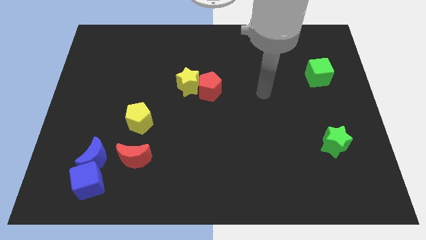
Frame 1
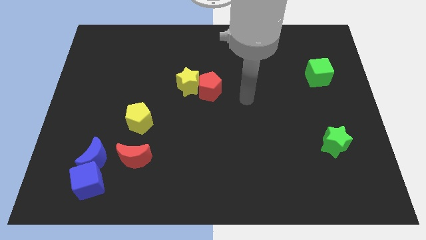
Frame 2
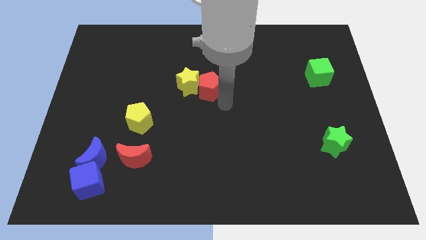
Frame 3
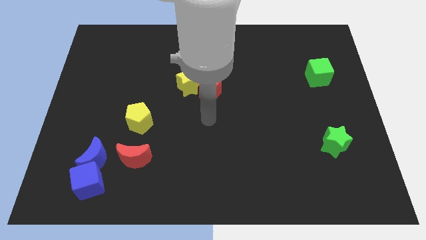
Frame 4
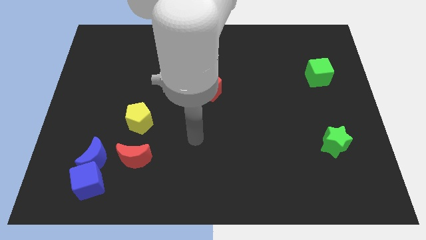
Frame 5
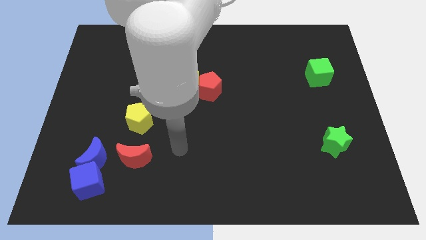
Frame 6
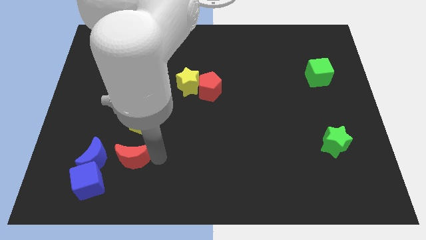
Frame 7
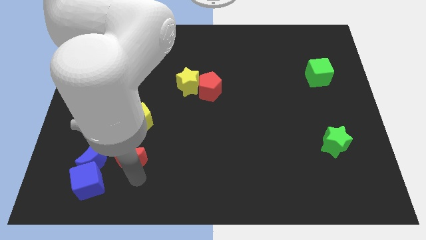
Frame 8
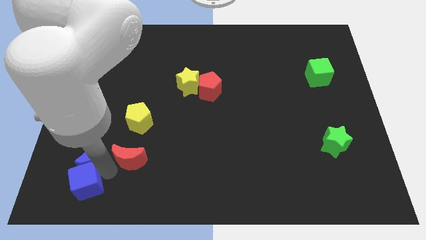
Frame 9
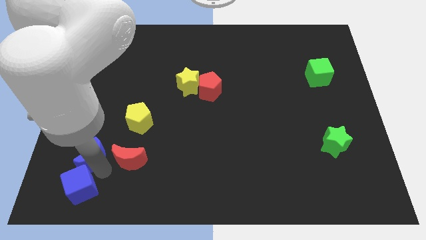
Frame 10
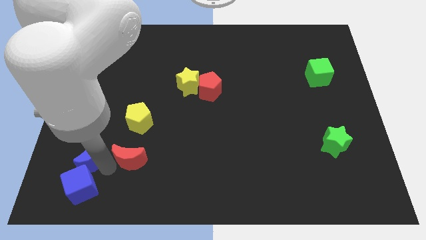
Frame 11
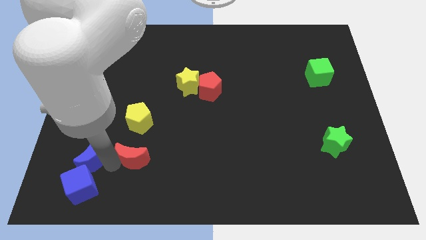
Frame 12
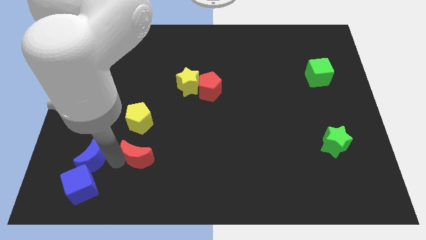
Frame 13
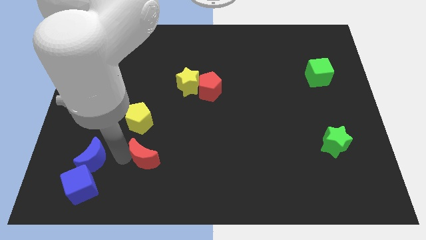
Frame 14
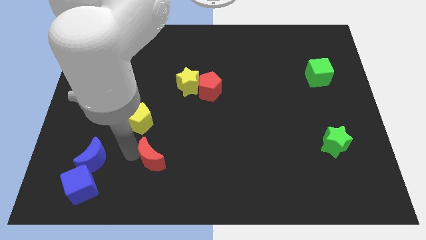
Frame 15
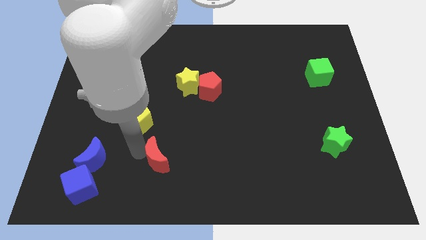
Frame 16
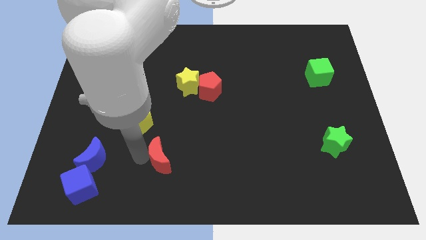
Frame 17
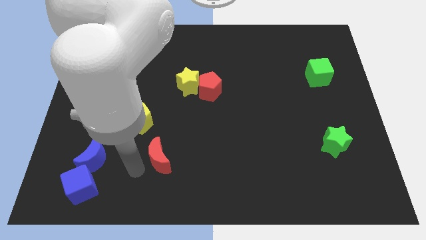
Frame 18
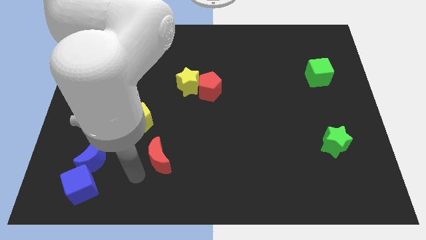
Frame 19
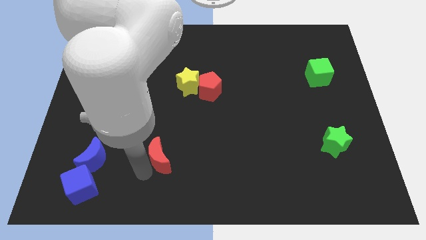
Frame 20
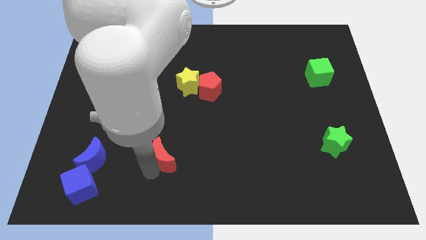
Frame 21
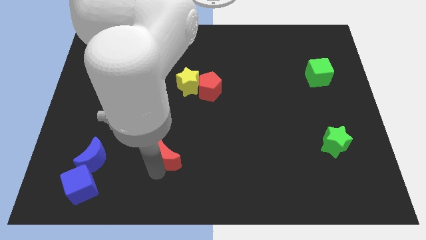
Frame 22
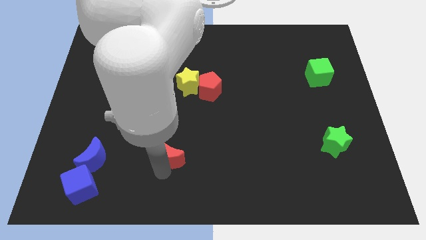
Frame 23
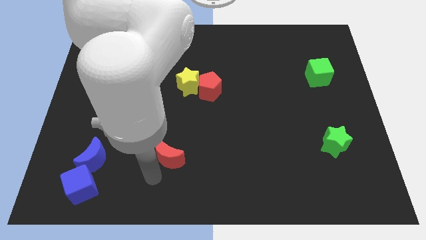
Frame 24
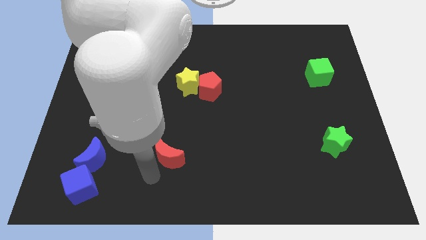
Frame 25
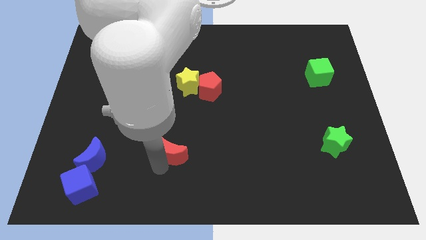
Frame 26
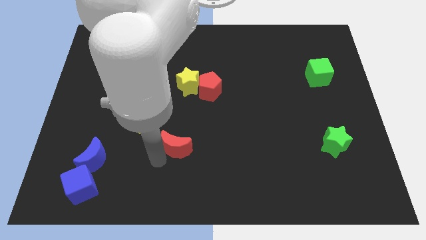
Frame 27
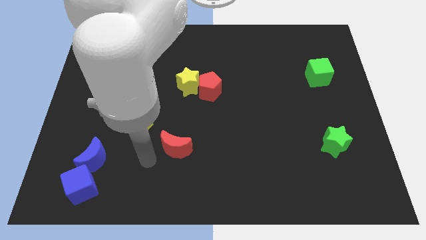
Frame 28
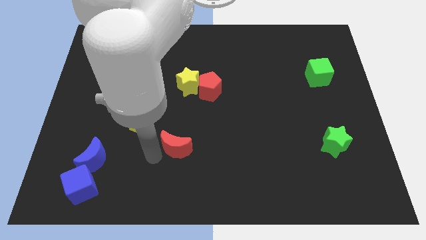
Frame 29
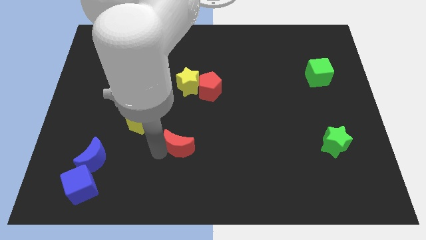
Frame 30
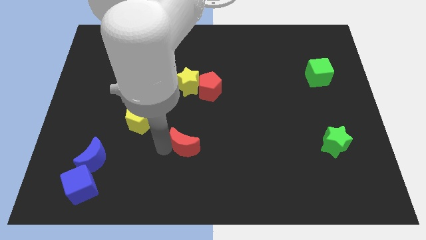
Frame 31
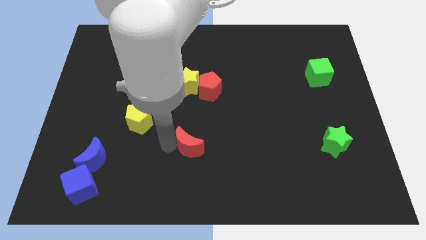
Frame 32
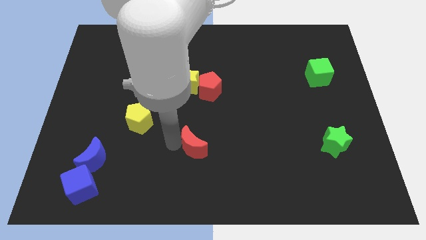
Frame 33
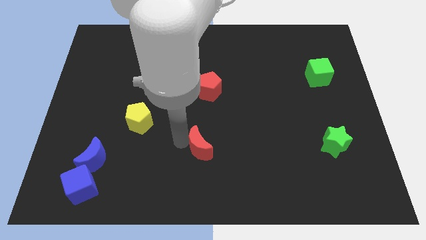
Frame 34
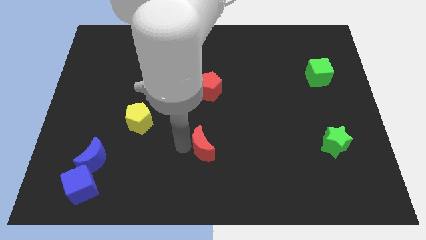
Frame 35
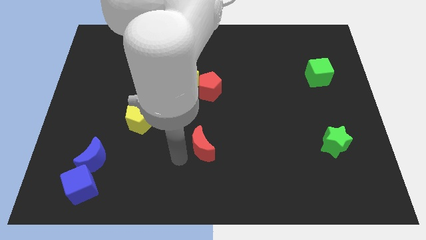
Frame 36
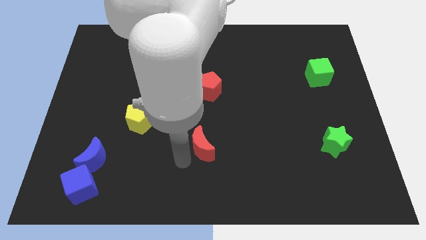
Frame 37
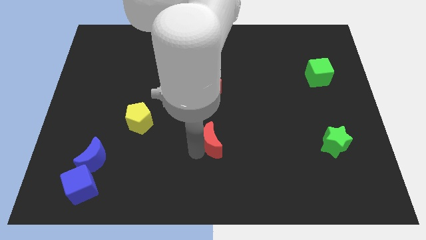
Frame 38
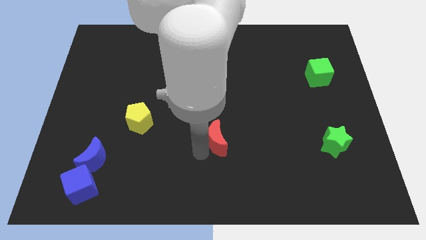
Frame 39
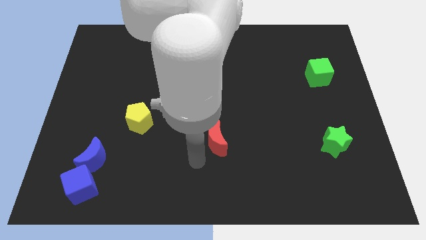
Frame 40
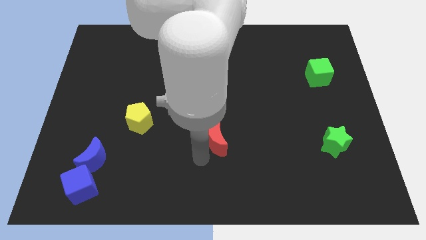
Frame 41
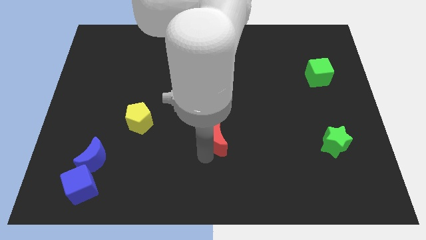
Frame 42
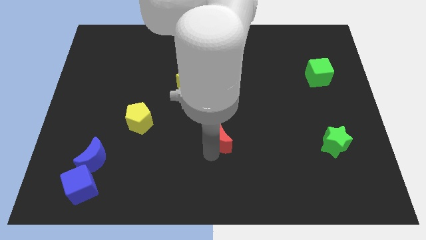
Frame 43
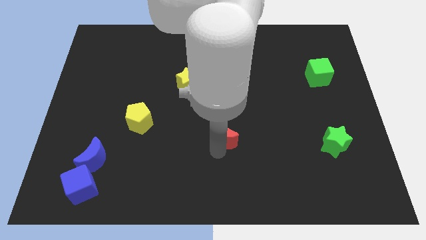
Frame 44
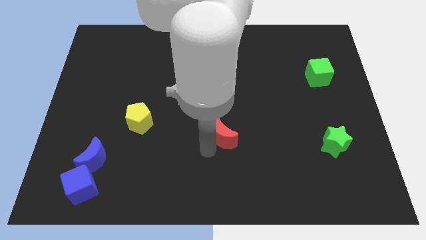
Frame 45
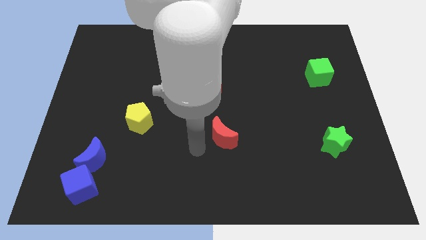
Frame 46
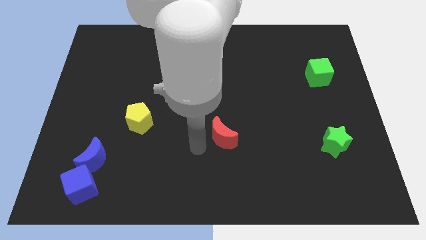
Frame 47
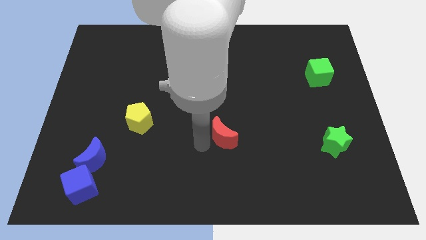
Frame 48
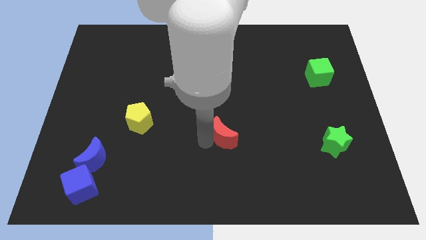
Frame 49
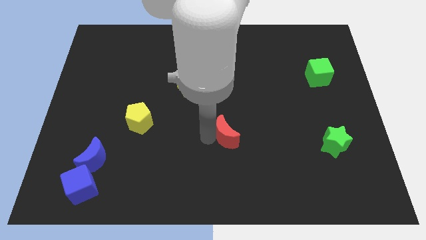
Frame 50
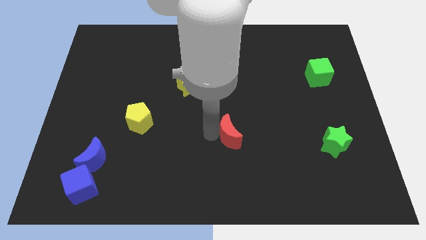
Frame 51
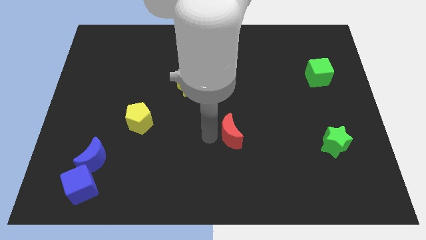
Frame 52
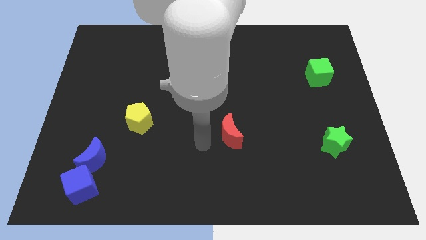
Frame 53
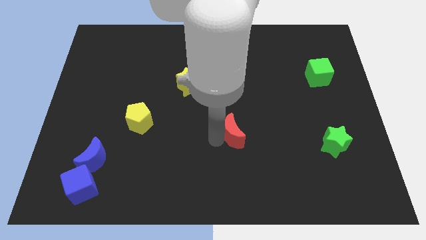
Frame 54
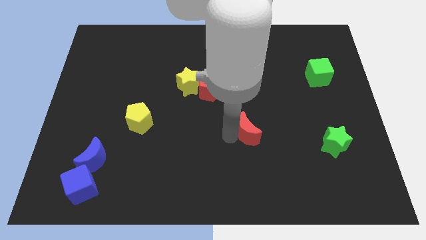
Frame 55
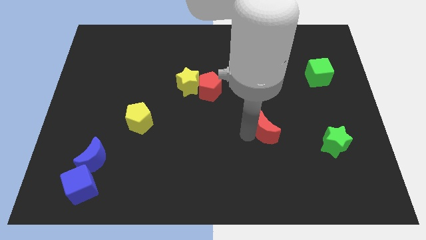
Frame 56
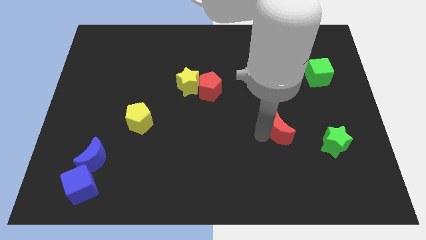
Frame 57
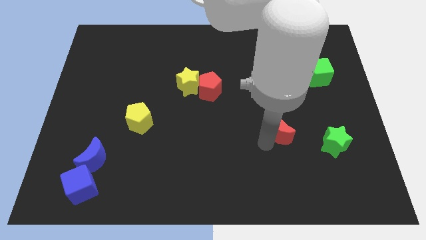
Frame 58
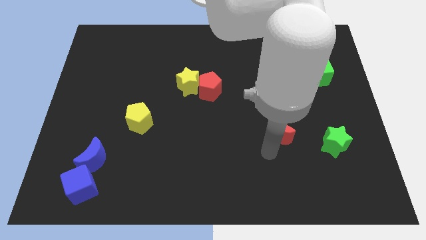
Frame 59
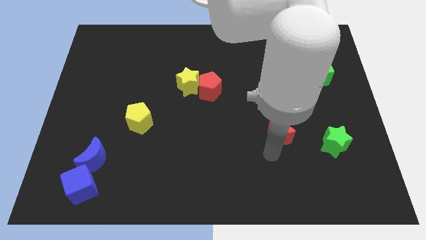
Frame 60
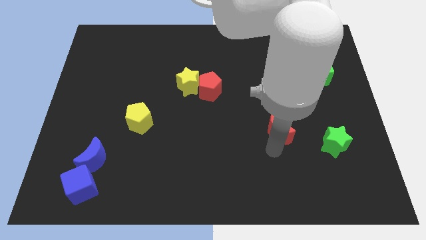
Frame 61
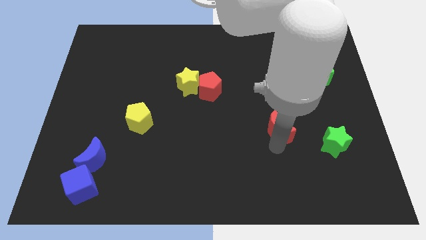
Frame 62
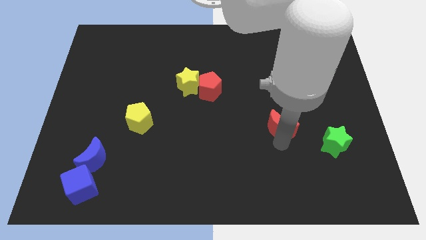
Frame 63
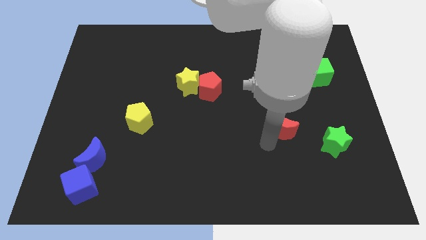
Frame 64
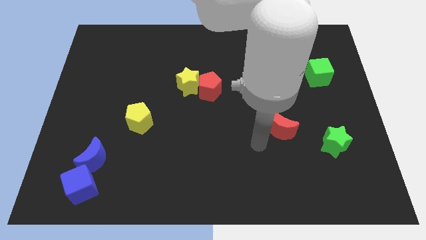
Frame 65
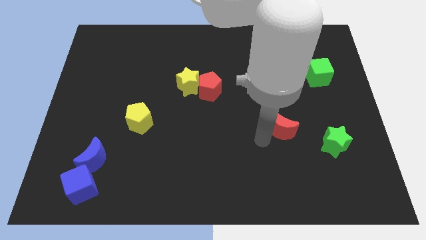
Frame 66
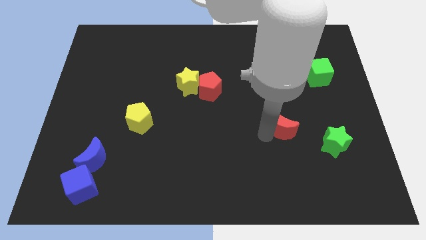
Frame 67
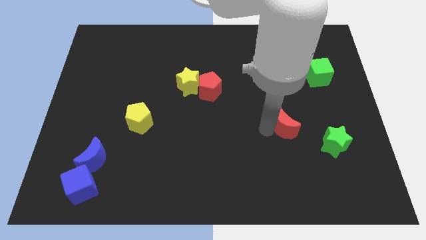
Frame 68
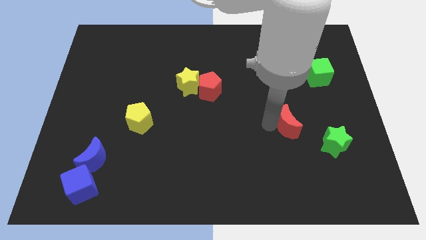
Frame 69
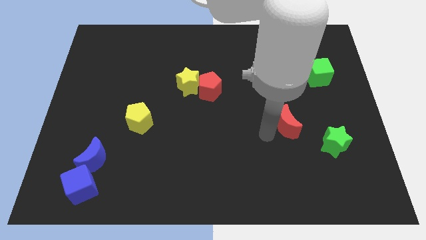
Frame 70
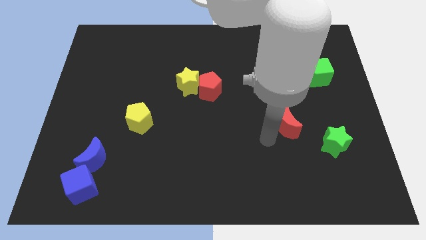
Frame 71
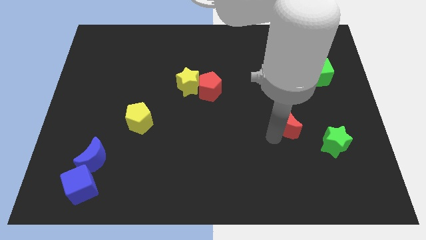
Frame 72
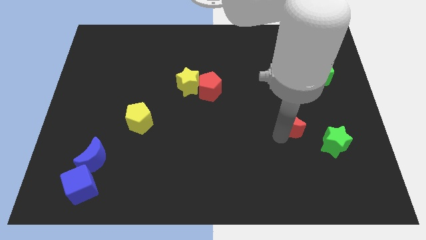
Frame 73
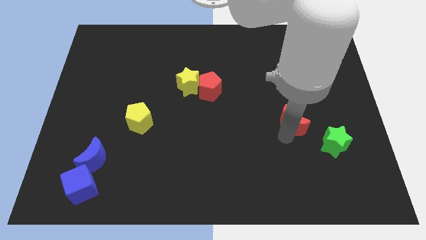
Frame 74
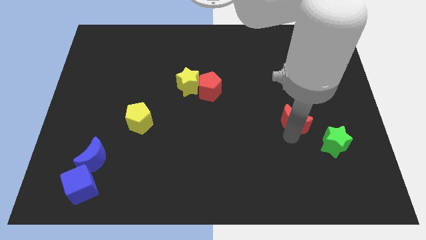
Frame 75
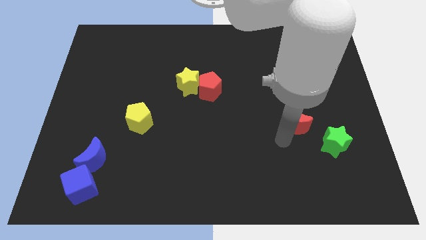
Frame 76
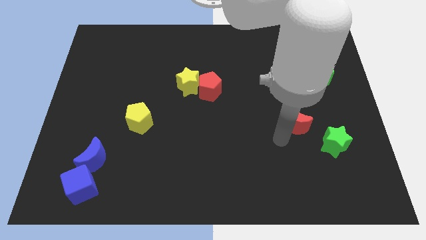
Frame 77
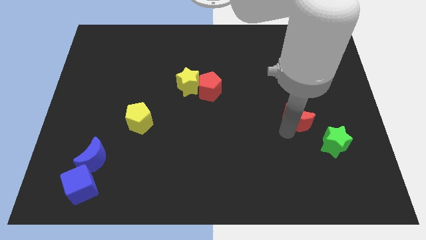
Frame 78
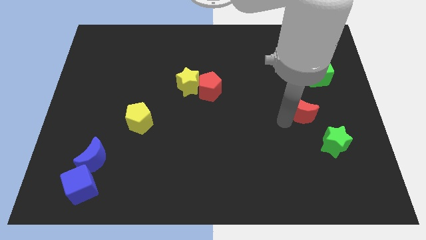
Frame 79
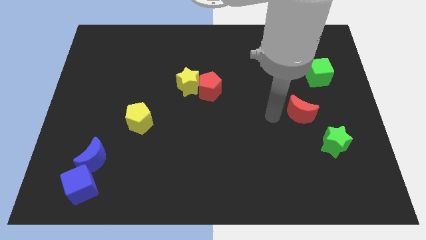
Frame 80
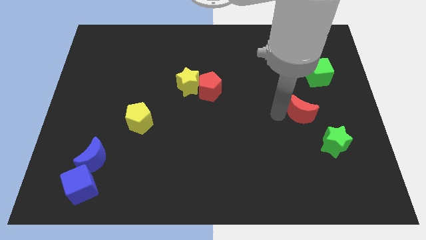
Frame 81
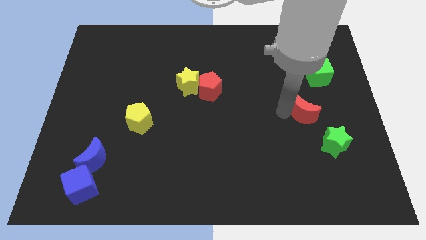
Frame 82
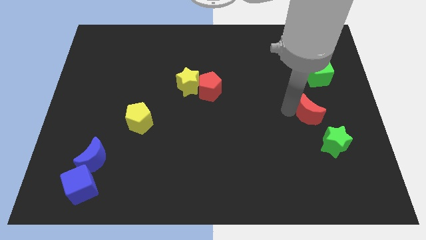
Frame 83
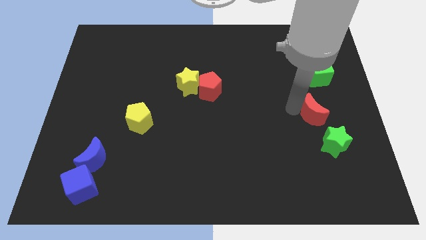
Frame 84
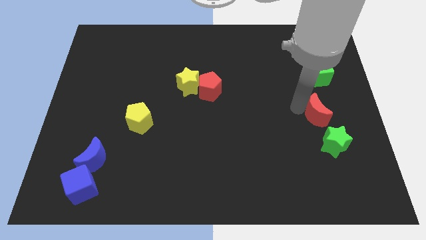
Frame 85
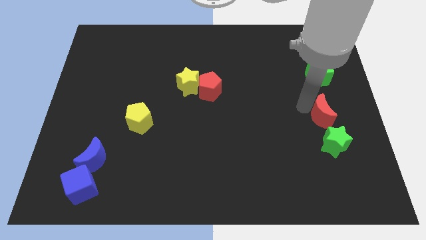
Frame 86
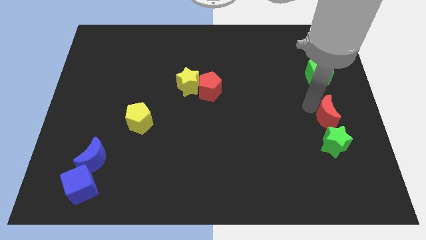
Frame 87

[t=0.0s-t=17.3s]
put the red moon to the right side of the board
